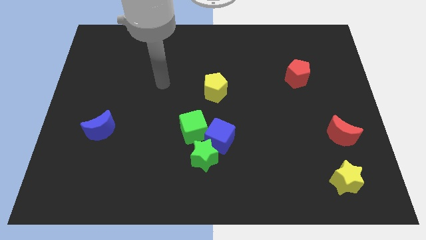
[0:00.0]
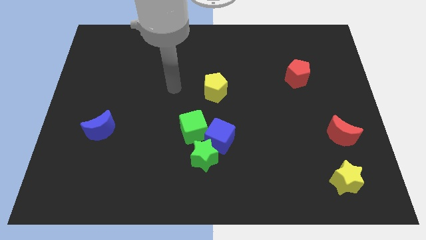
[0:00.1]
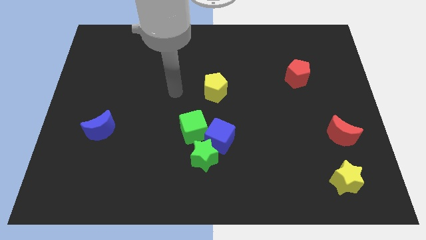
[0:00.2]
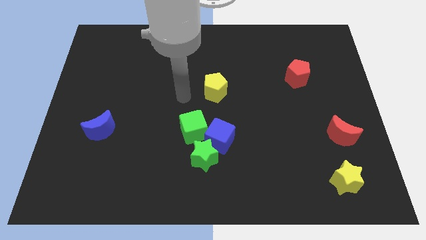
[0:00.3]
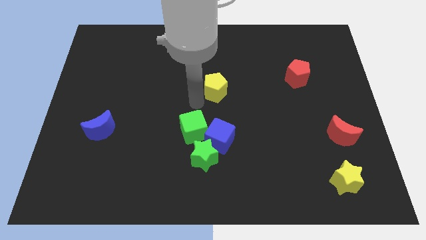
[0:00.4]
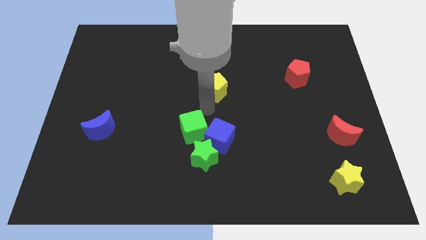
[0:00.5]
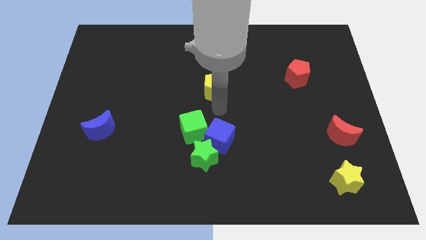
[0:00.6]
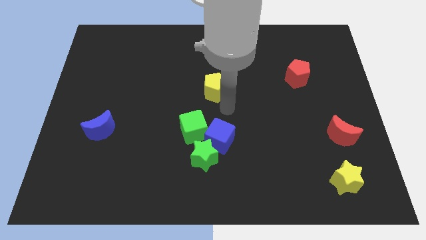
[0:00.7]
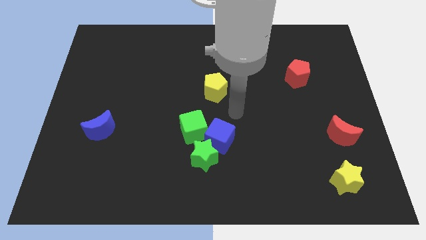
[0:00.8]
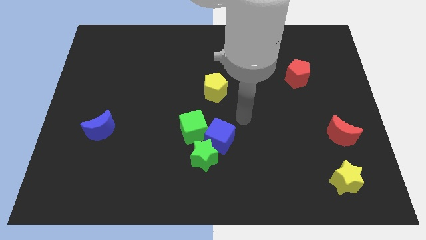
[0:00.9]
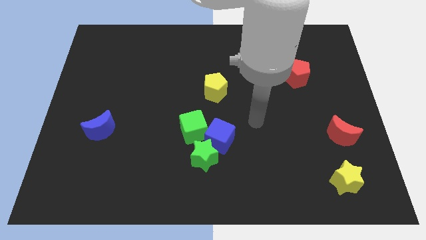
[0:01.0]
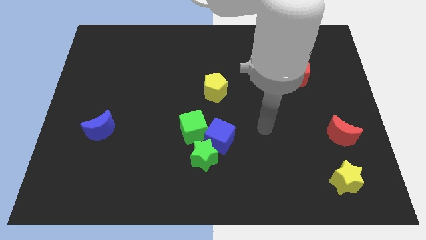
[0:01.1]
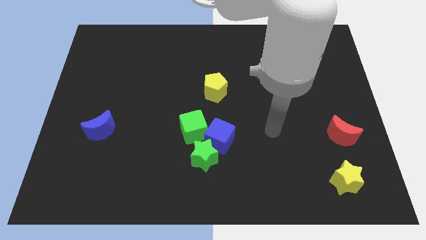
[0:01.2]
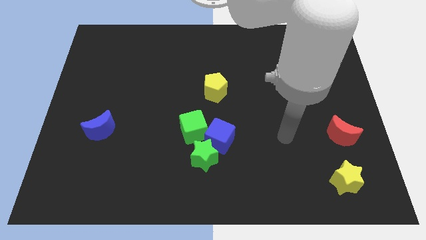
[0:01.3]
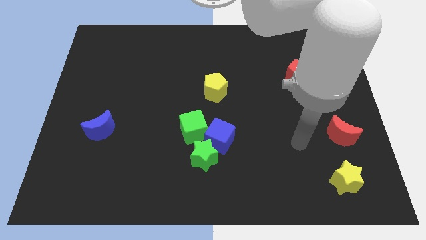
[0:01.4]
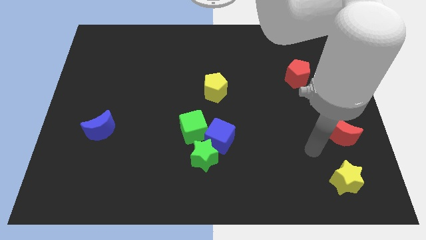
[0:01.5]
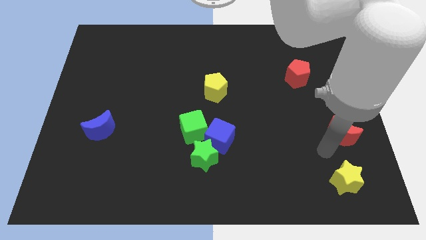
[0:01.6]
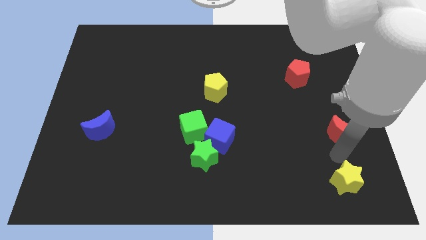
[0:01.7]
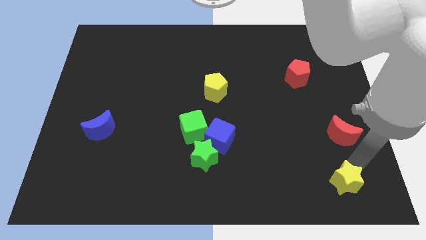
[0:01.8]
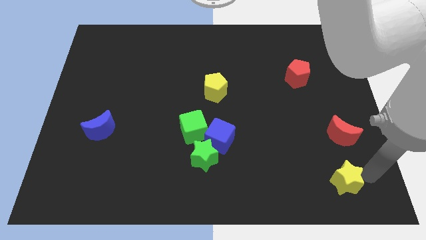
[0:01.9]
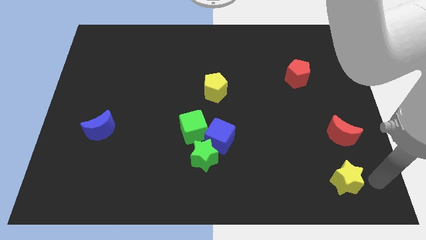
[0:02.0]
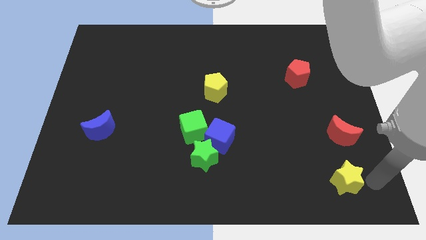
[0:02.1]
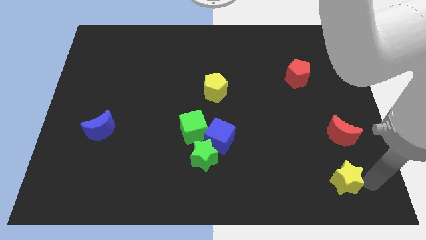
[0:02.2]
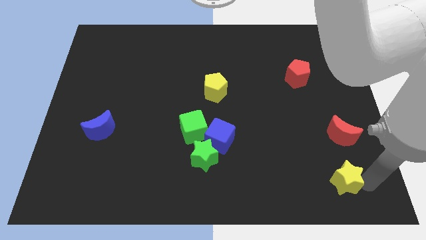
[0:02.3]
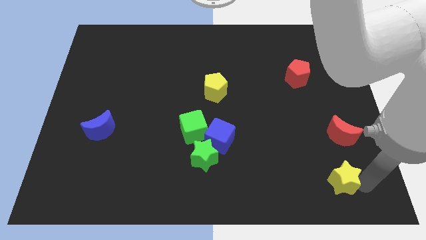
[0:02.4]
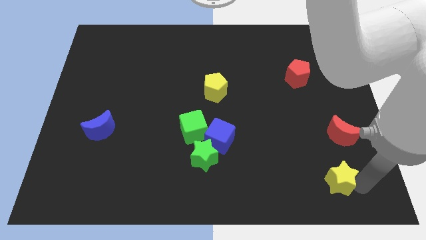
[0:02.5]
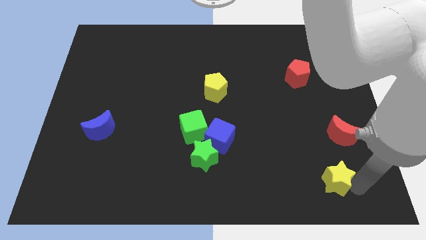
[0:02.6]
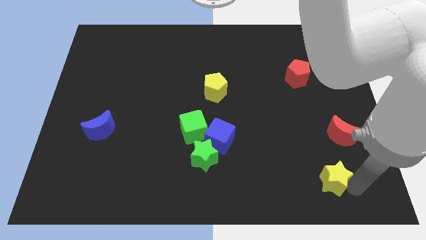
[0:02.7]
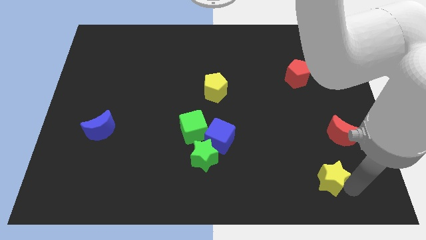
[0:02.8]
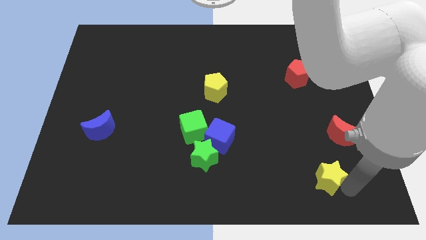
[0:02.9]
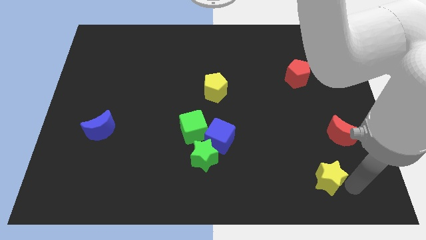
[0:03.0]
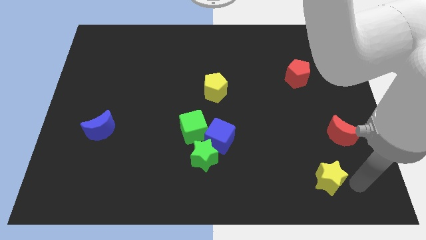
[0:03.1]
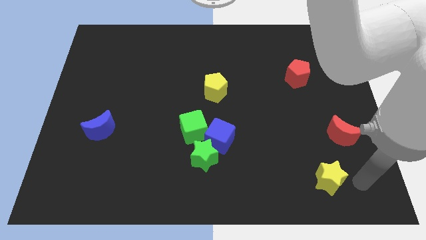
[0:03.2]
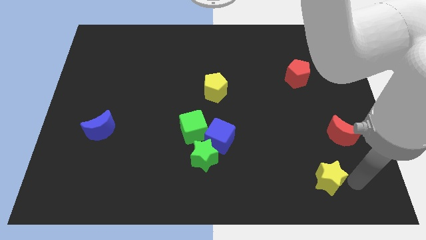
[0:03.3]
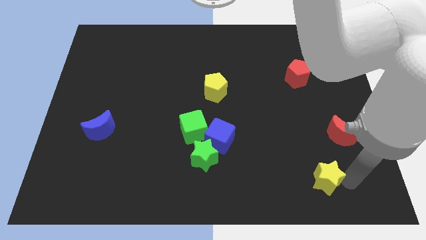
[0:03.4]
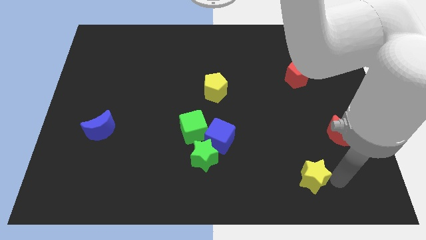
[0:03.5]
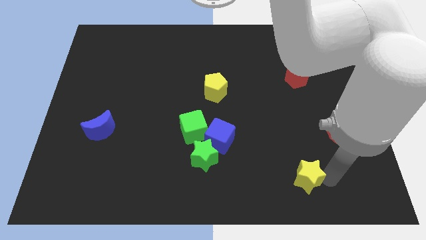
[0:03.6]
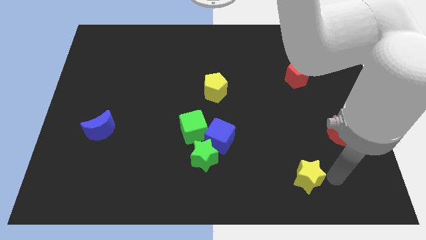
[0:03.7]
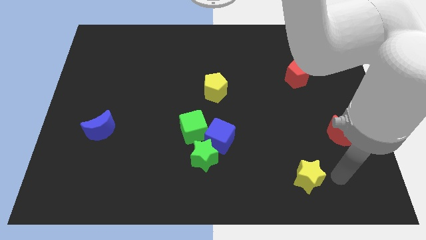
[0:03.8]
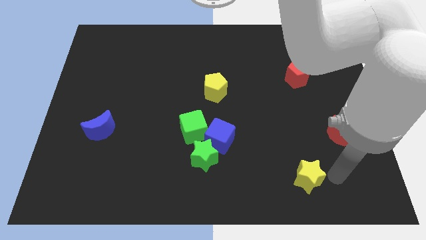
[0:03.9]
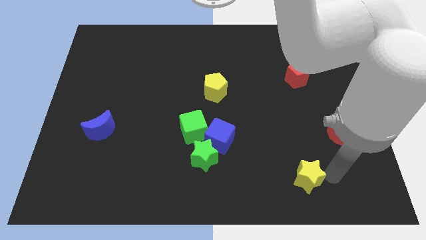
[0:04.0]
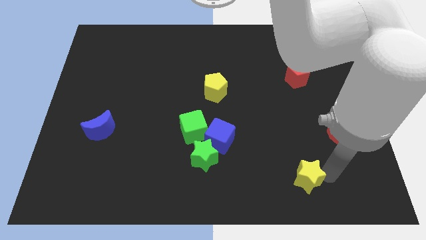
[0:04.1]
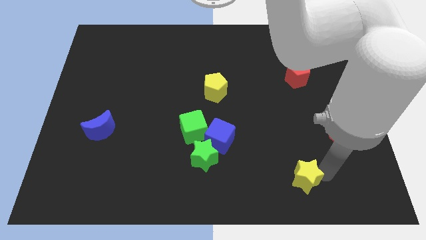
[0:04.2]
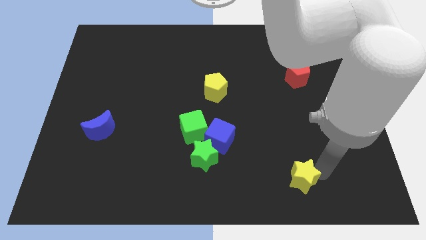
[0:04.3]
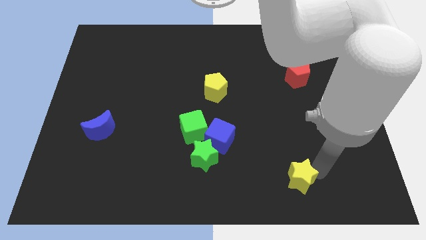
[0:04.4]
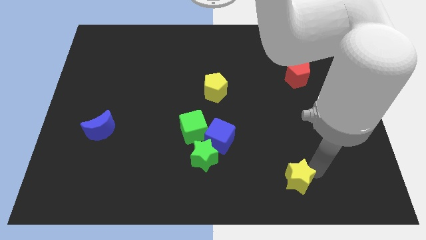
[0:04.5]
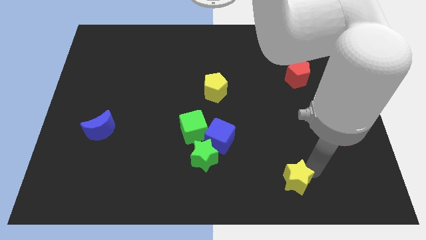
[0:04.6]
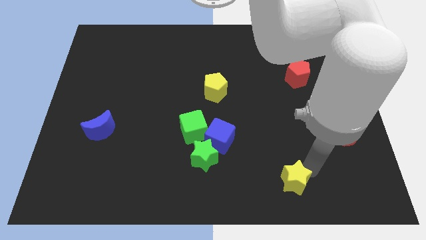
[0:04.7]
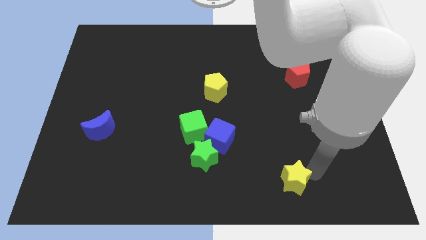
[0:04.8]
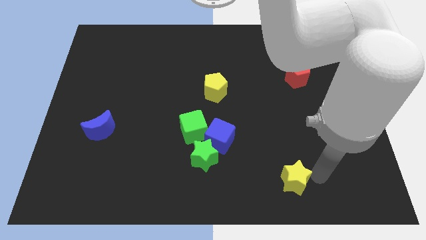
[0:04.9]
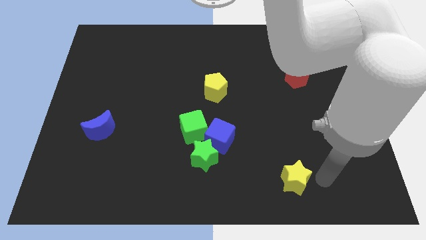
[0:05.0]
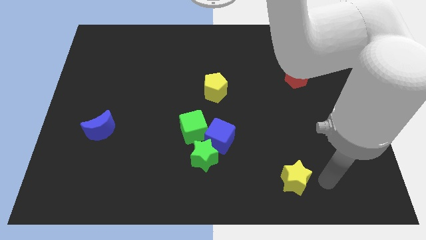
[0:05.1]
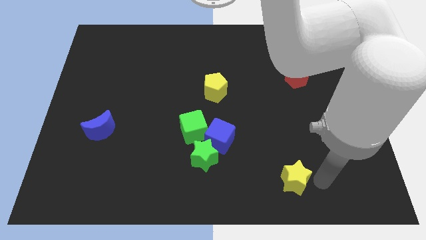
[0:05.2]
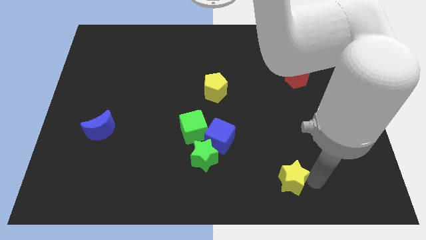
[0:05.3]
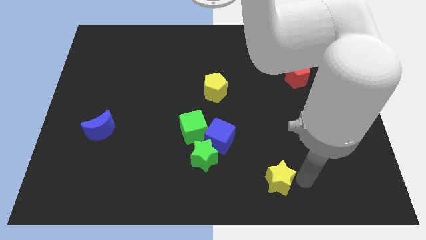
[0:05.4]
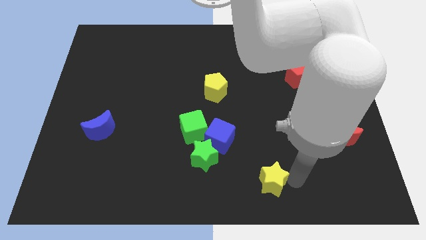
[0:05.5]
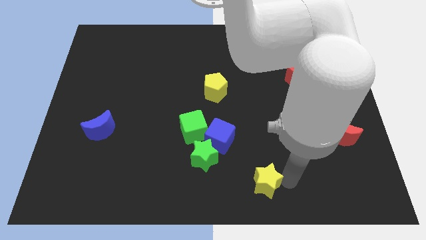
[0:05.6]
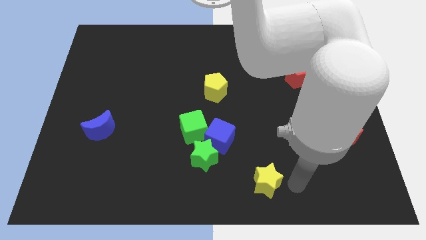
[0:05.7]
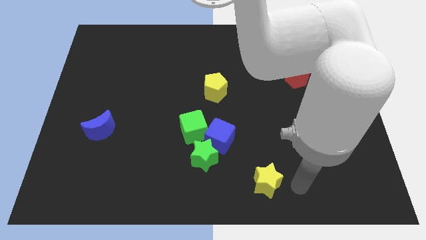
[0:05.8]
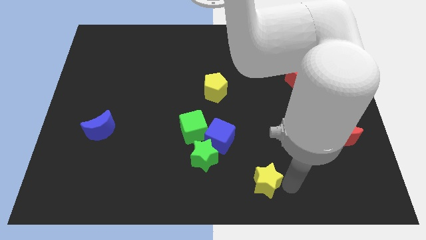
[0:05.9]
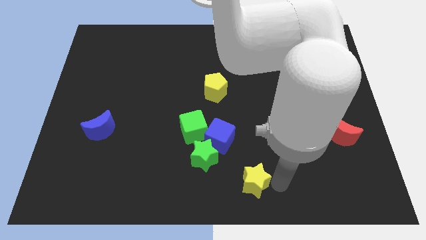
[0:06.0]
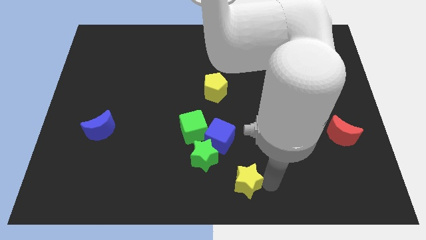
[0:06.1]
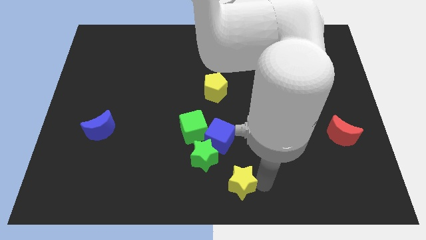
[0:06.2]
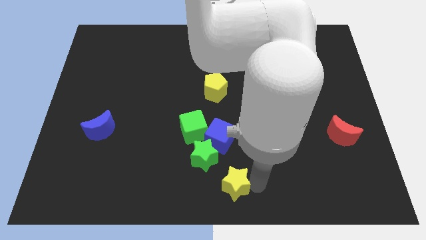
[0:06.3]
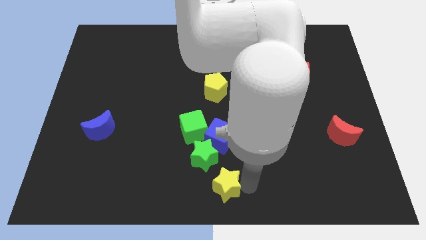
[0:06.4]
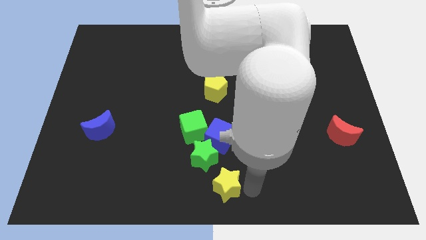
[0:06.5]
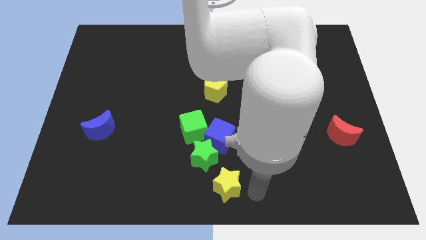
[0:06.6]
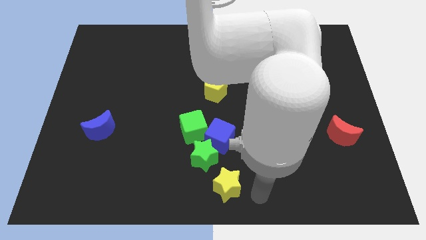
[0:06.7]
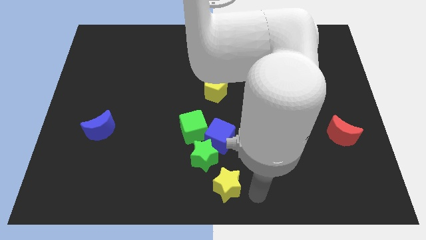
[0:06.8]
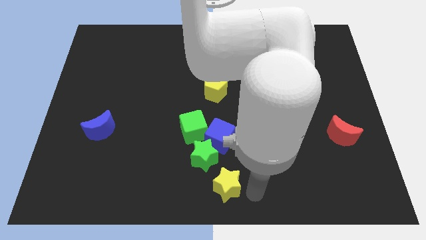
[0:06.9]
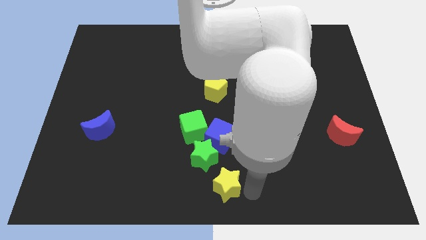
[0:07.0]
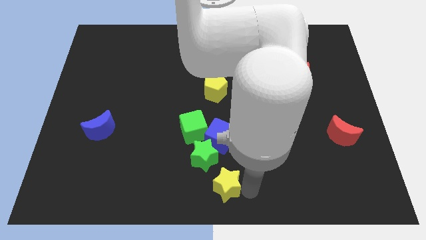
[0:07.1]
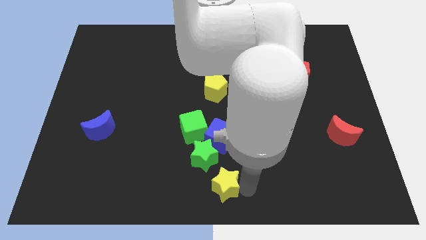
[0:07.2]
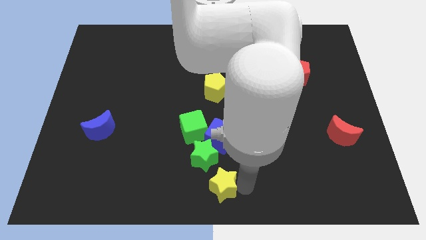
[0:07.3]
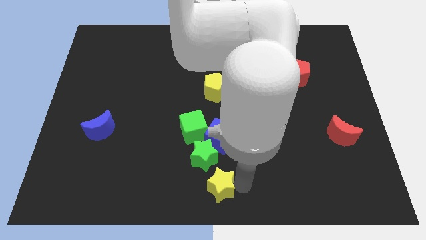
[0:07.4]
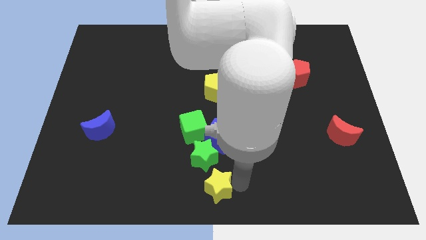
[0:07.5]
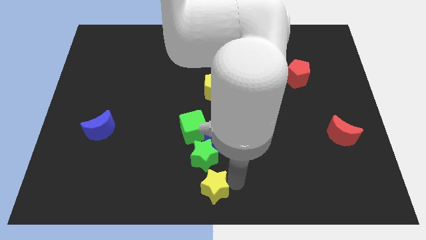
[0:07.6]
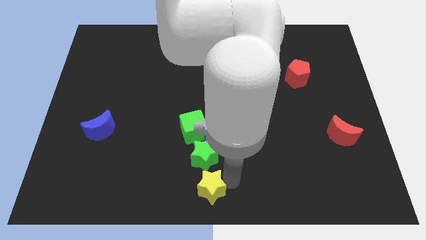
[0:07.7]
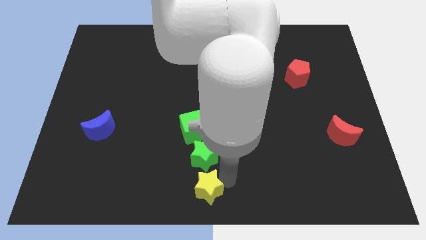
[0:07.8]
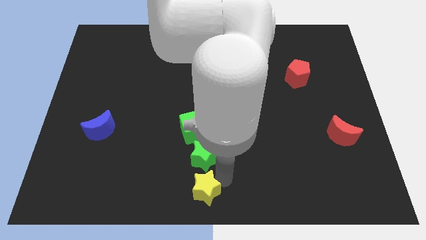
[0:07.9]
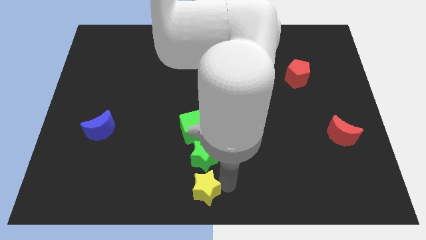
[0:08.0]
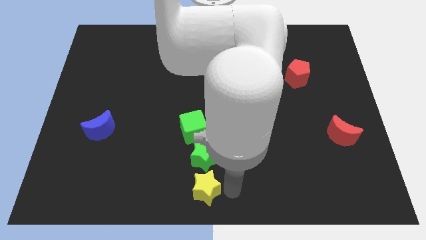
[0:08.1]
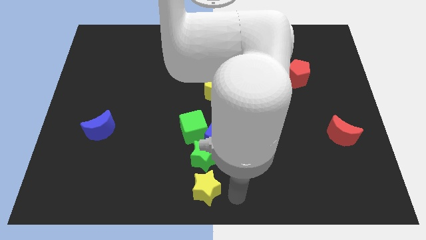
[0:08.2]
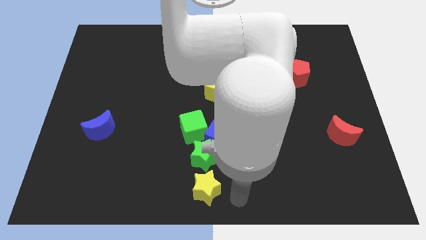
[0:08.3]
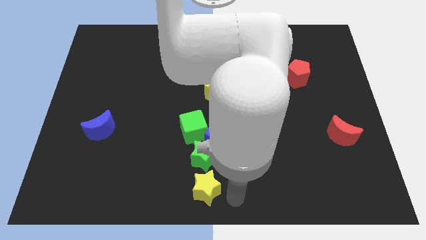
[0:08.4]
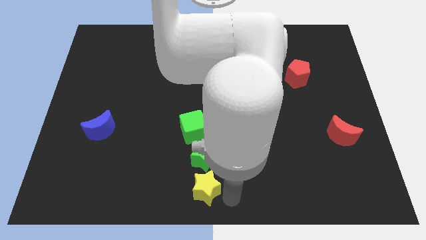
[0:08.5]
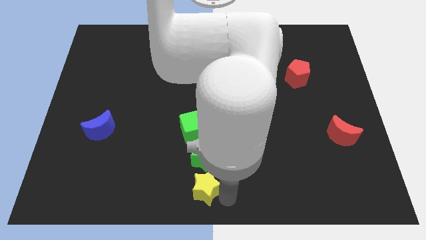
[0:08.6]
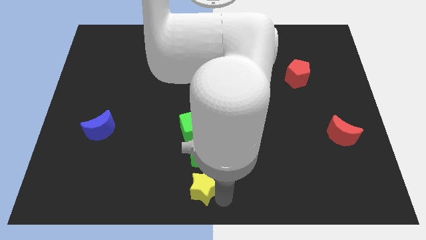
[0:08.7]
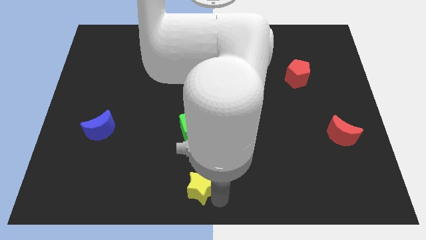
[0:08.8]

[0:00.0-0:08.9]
slide the yellow star to the bottom left of the green star
